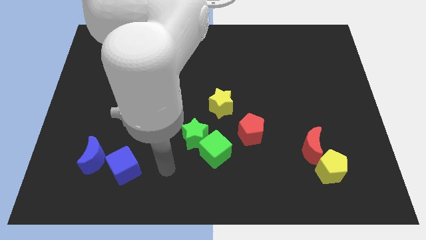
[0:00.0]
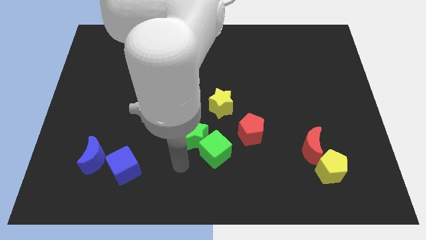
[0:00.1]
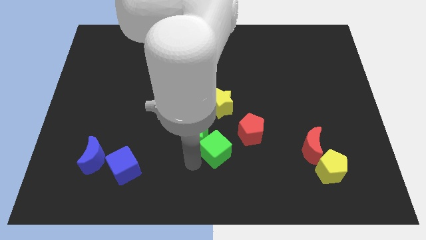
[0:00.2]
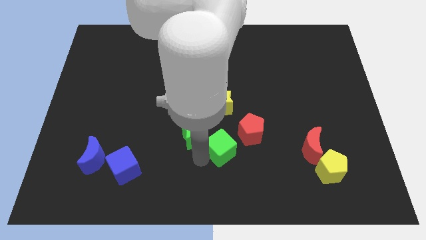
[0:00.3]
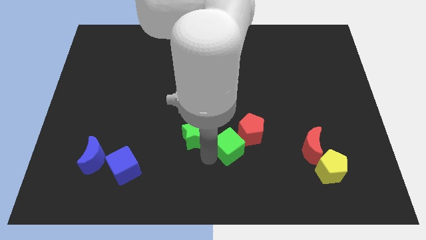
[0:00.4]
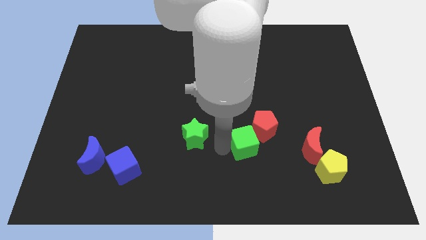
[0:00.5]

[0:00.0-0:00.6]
move the green star away from the green cube

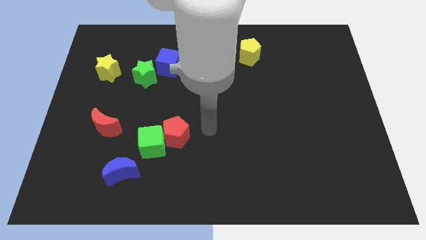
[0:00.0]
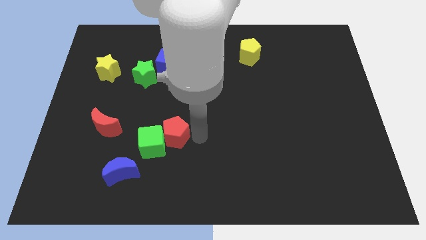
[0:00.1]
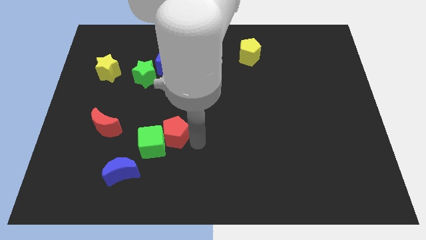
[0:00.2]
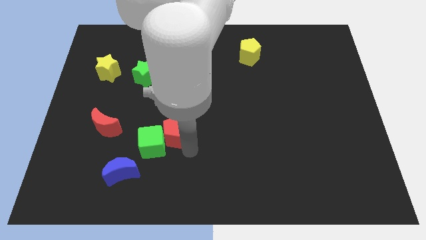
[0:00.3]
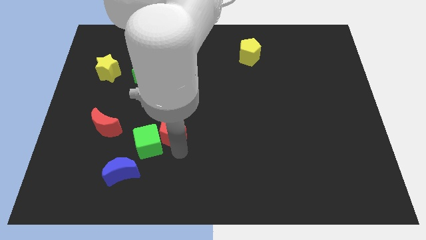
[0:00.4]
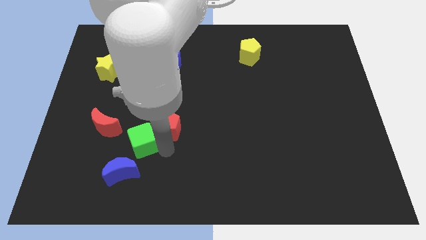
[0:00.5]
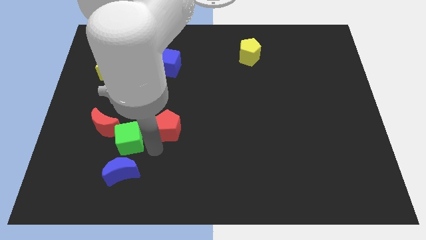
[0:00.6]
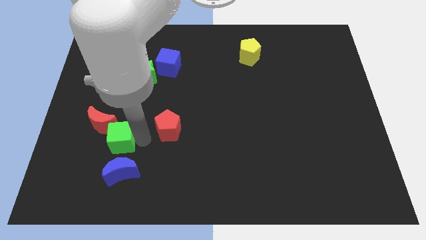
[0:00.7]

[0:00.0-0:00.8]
move the red pentagon away from the green cube

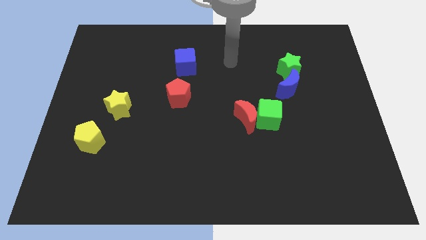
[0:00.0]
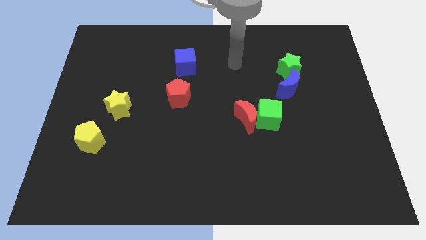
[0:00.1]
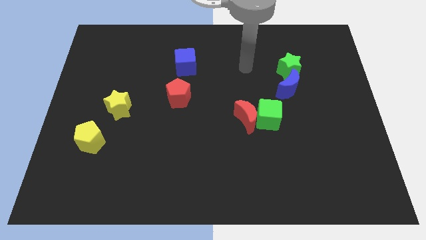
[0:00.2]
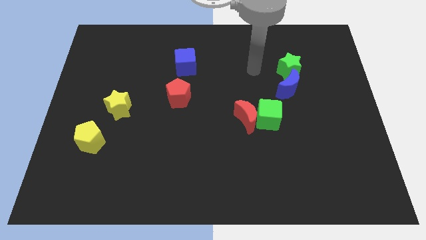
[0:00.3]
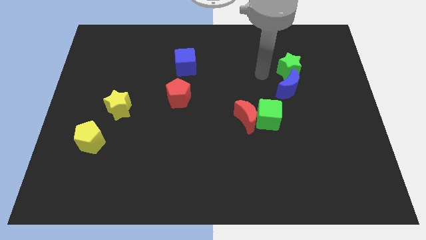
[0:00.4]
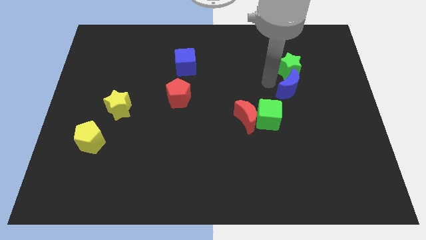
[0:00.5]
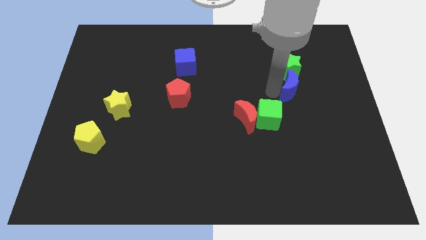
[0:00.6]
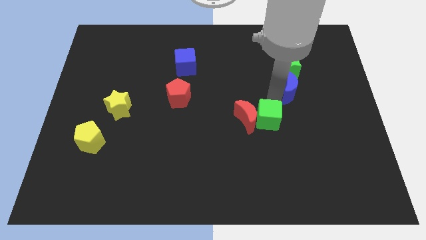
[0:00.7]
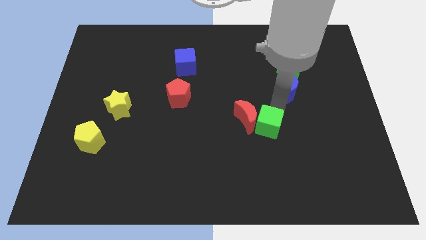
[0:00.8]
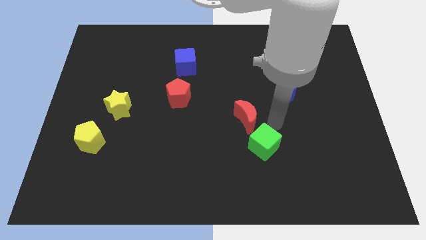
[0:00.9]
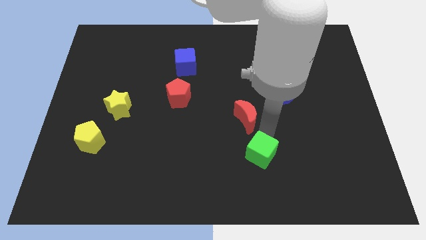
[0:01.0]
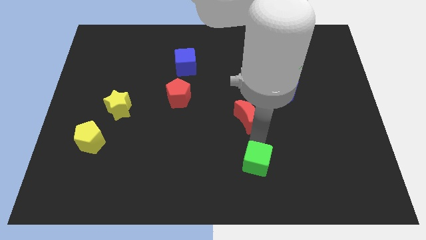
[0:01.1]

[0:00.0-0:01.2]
move the red moon away from the green cube

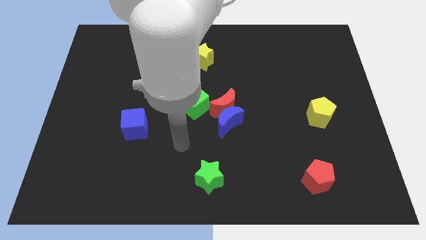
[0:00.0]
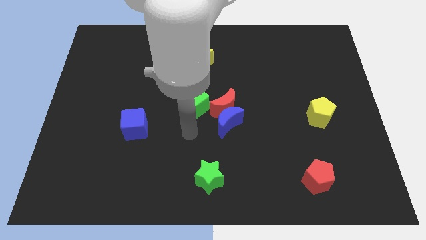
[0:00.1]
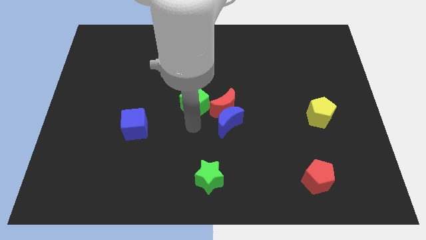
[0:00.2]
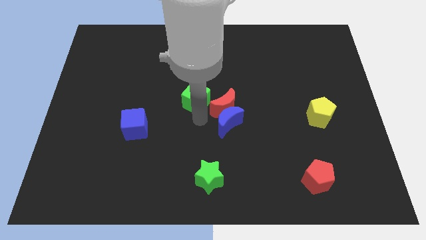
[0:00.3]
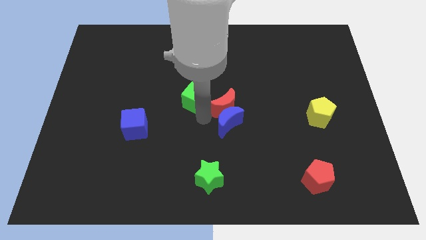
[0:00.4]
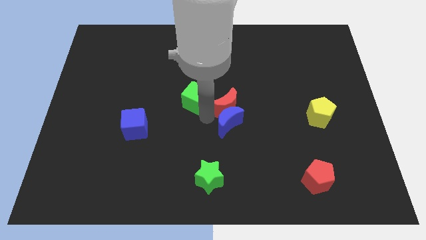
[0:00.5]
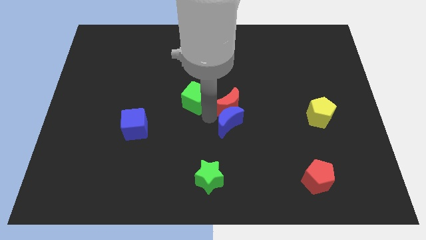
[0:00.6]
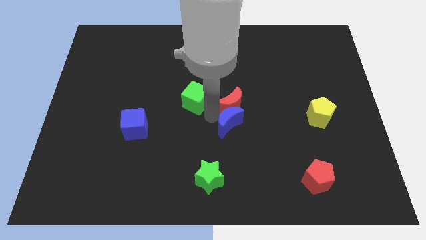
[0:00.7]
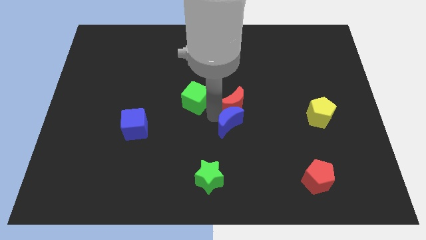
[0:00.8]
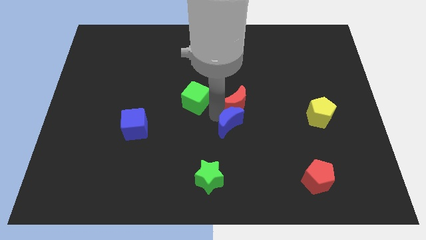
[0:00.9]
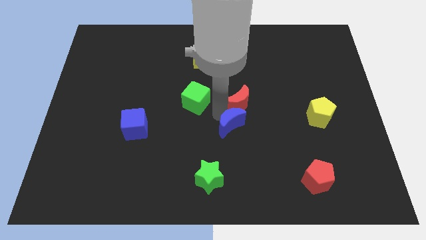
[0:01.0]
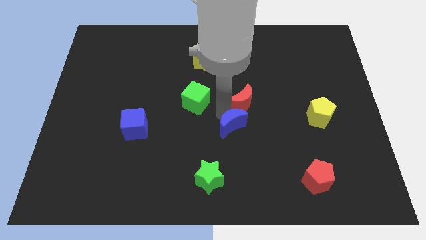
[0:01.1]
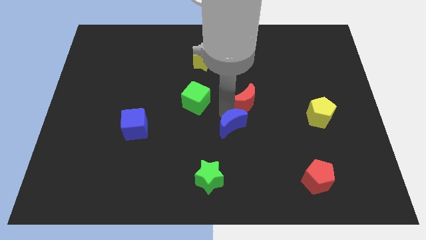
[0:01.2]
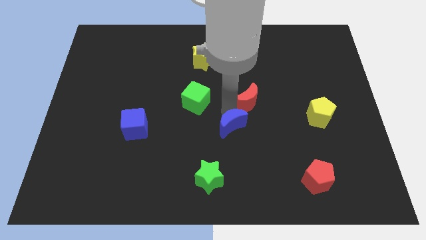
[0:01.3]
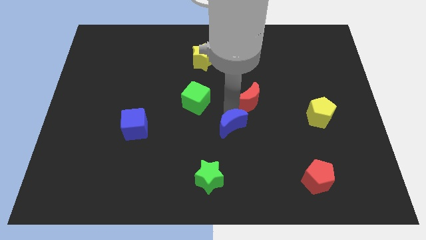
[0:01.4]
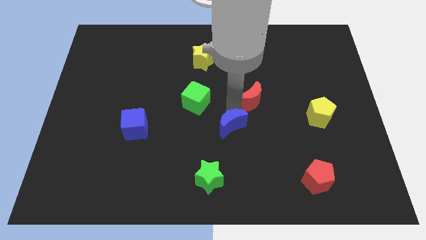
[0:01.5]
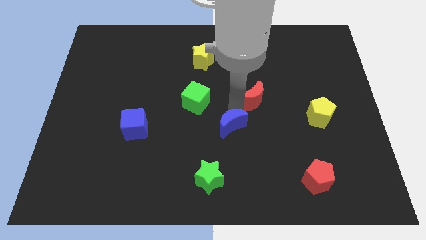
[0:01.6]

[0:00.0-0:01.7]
separate the red moon from the blue moon and green cube

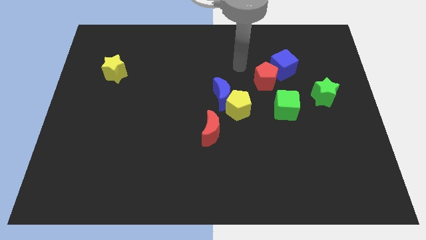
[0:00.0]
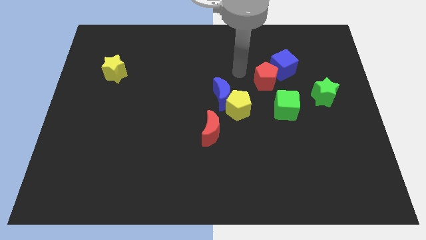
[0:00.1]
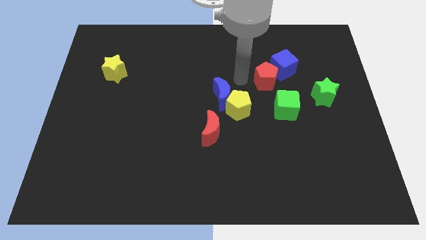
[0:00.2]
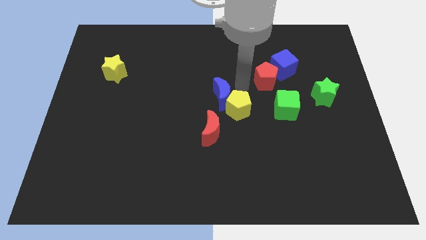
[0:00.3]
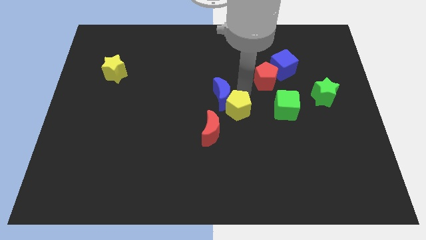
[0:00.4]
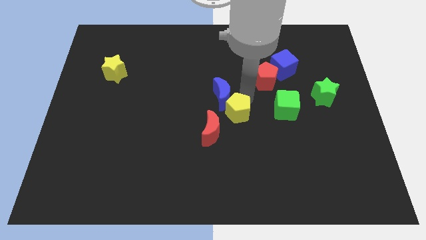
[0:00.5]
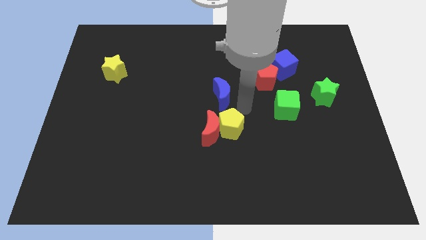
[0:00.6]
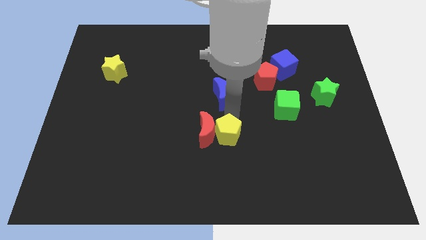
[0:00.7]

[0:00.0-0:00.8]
pull the blue moon apart from the yellow pentagon

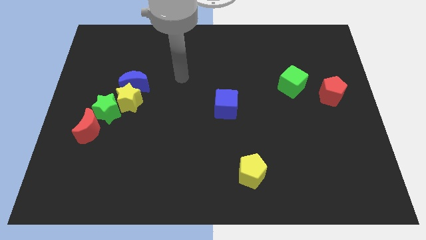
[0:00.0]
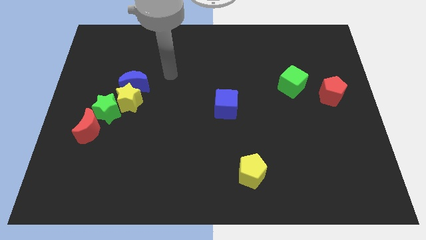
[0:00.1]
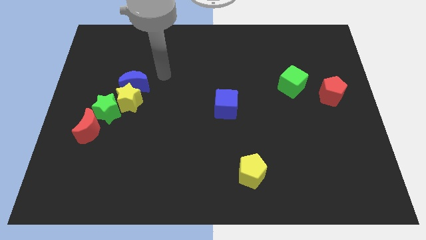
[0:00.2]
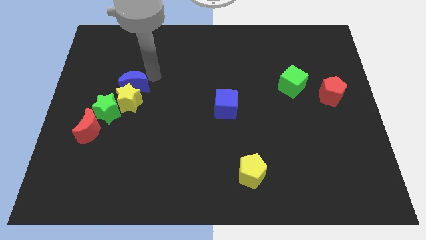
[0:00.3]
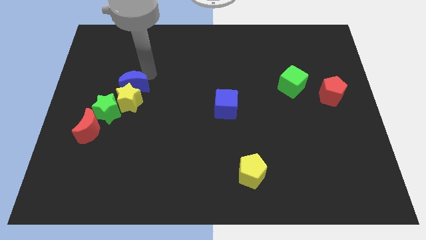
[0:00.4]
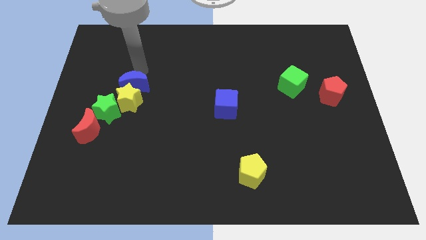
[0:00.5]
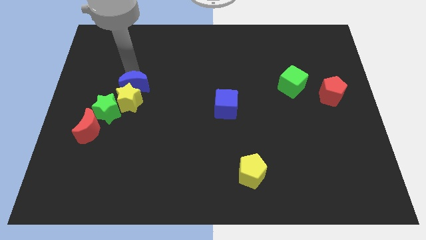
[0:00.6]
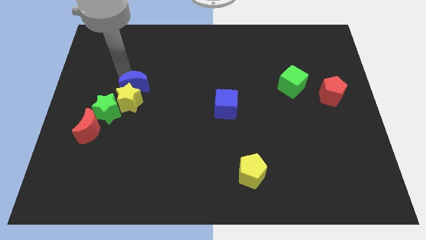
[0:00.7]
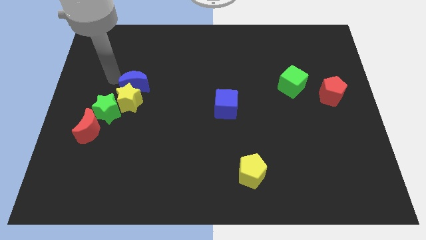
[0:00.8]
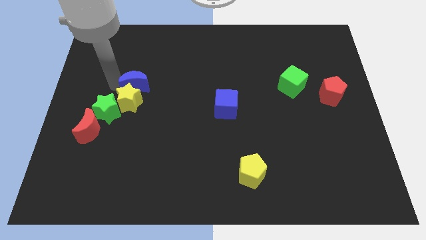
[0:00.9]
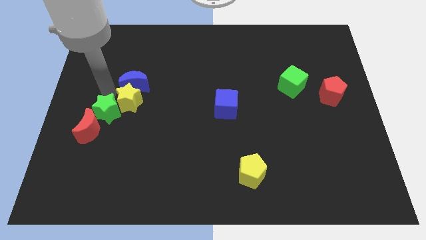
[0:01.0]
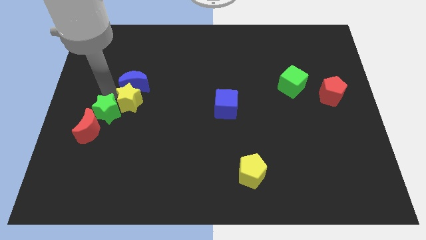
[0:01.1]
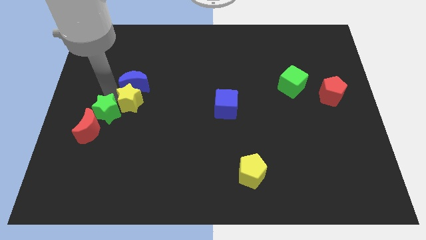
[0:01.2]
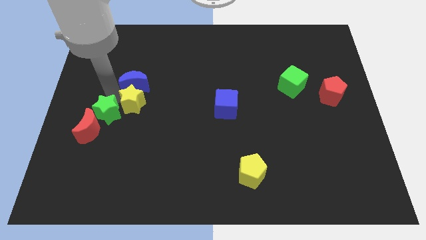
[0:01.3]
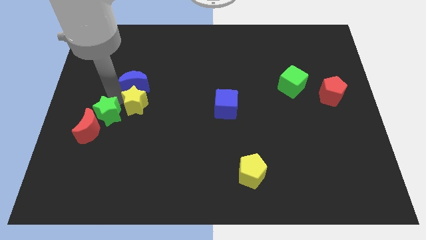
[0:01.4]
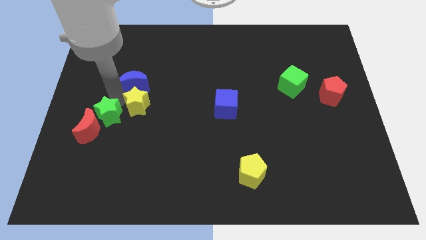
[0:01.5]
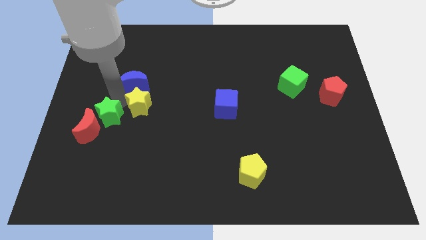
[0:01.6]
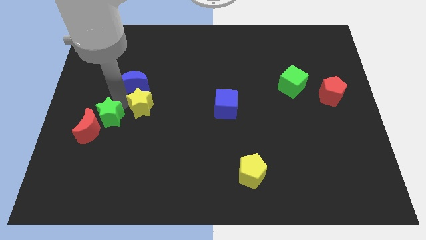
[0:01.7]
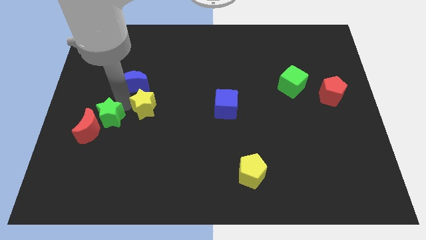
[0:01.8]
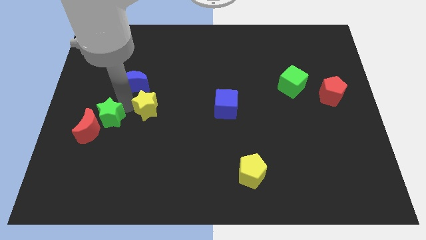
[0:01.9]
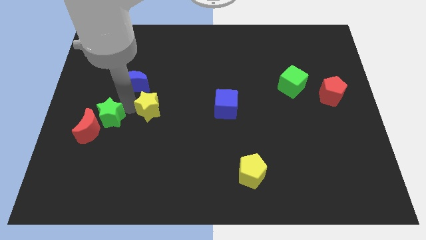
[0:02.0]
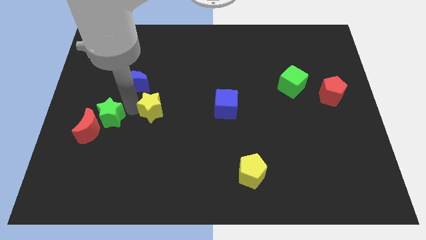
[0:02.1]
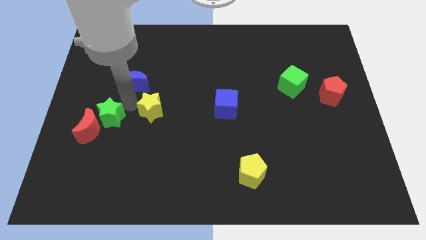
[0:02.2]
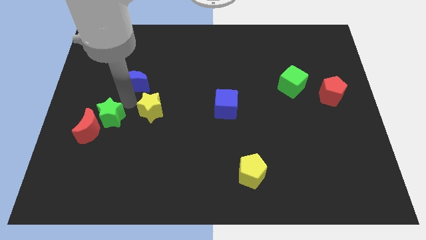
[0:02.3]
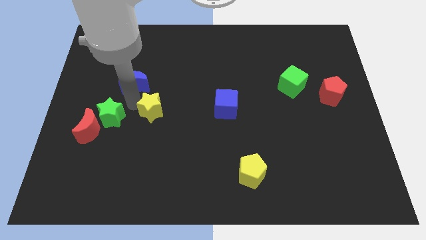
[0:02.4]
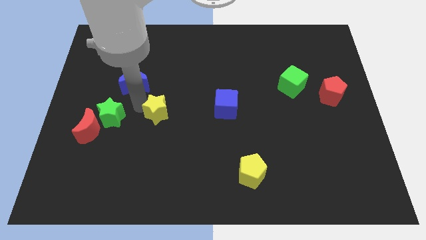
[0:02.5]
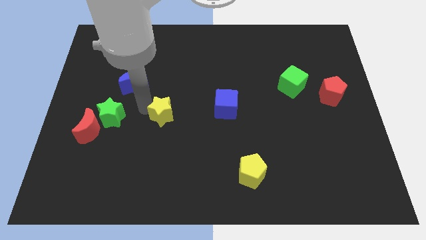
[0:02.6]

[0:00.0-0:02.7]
pull the yellow star apart from the blue moon and green star

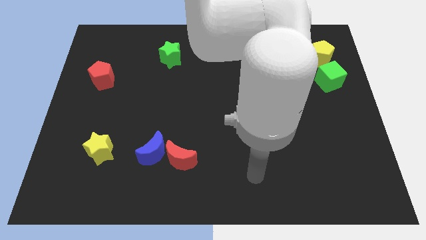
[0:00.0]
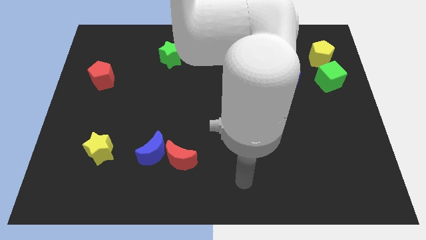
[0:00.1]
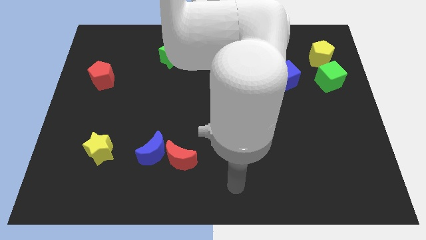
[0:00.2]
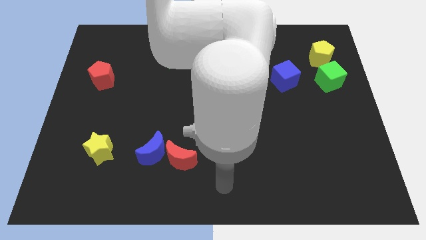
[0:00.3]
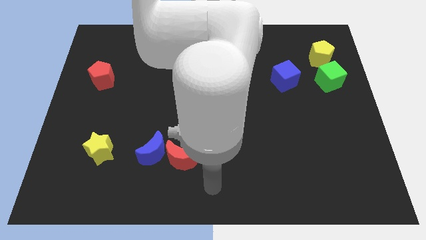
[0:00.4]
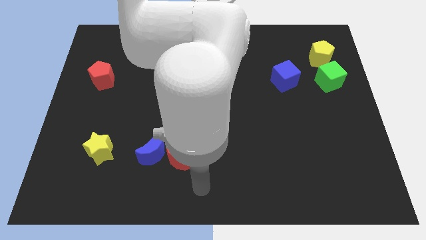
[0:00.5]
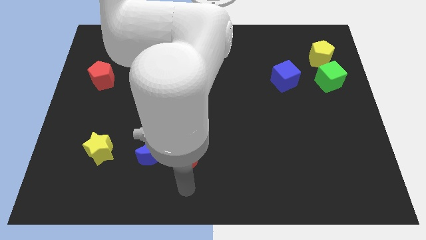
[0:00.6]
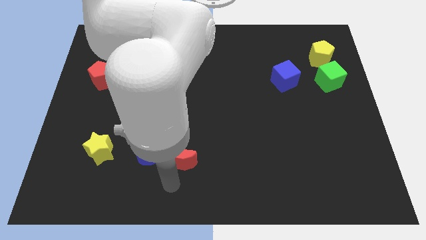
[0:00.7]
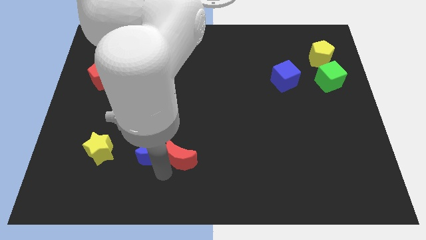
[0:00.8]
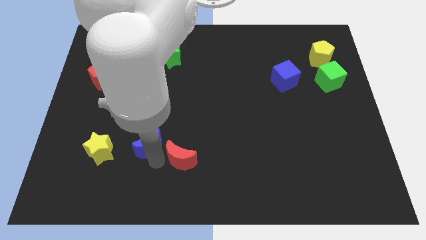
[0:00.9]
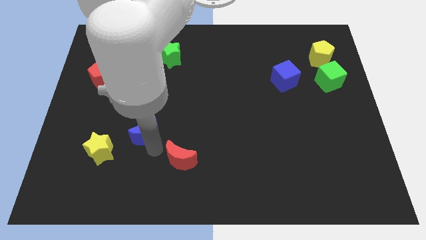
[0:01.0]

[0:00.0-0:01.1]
move the red moon away from the blue moon

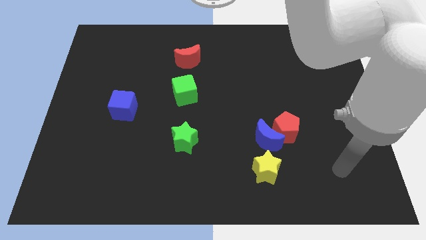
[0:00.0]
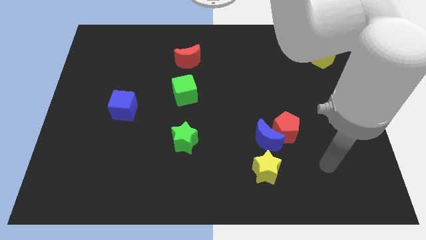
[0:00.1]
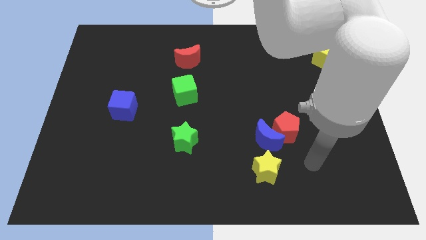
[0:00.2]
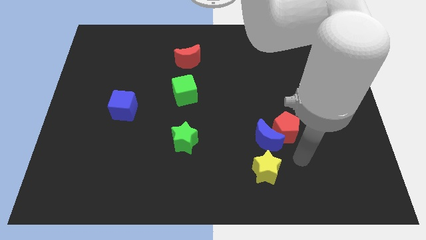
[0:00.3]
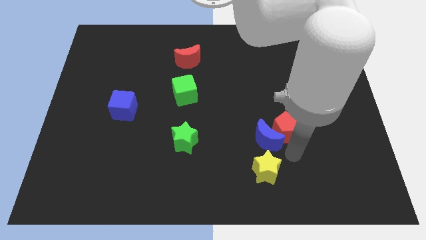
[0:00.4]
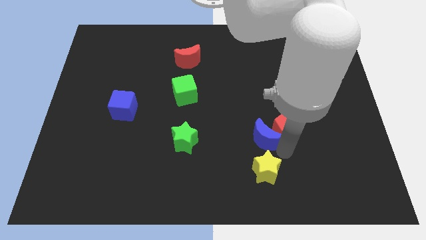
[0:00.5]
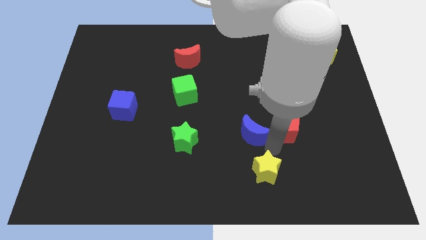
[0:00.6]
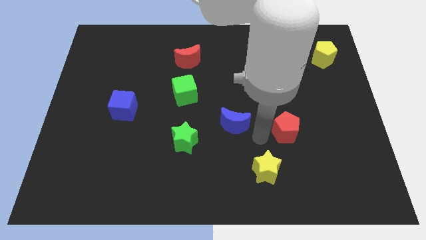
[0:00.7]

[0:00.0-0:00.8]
move the red pentagon away from the blue moon
